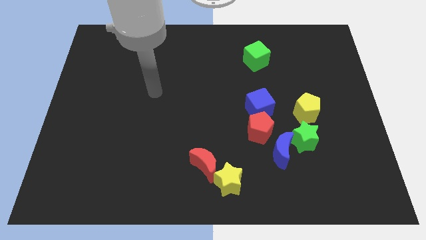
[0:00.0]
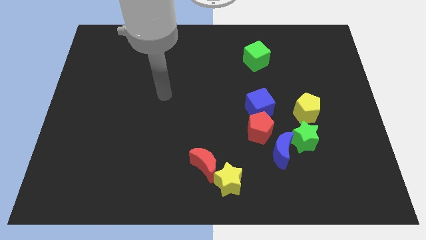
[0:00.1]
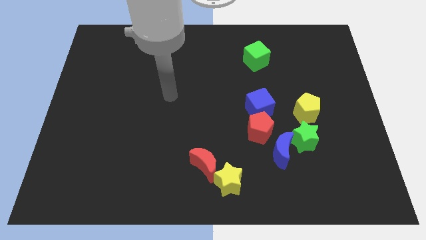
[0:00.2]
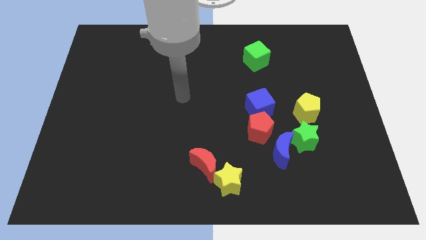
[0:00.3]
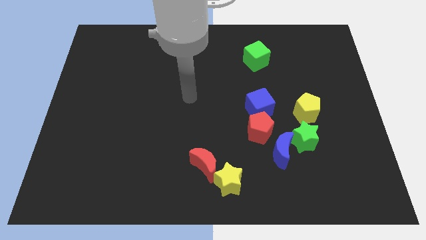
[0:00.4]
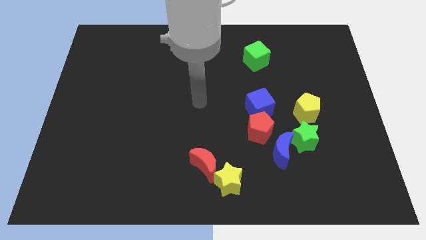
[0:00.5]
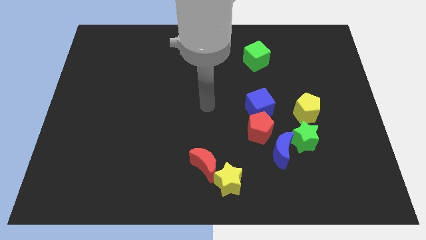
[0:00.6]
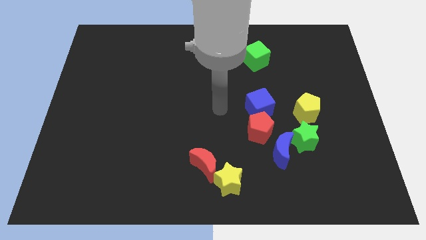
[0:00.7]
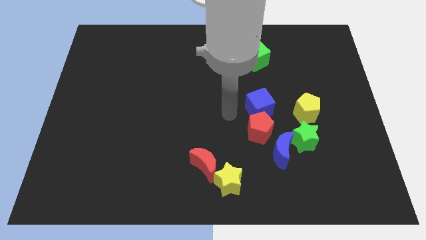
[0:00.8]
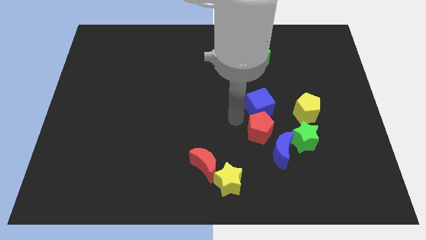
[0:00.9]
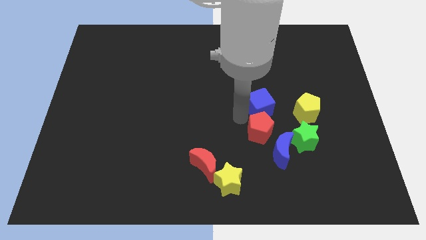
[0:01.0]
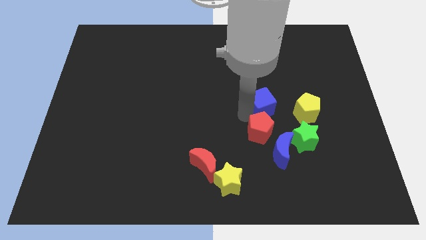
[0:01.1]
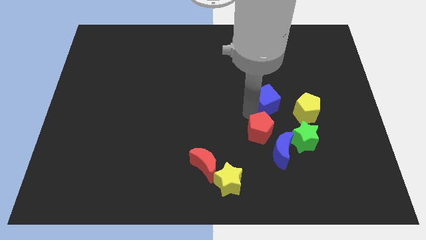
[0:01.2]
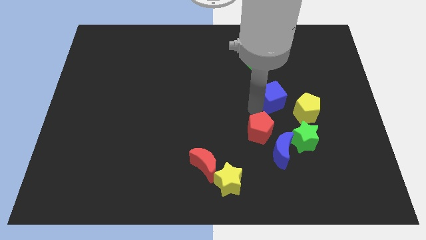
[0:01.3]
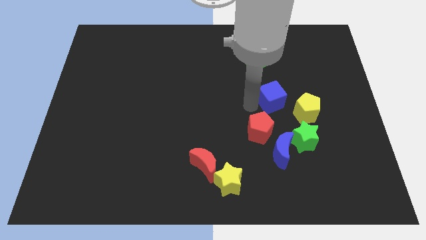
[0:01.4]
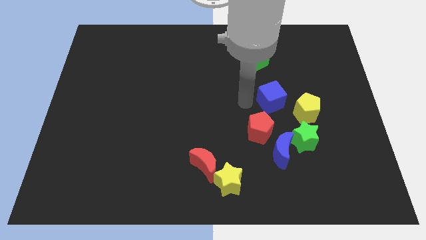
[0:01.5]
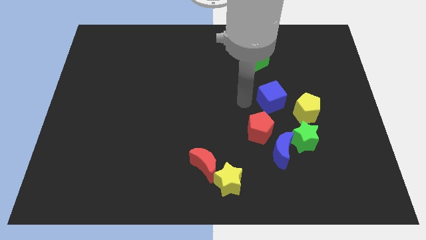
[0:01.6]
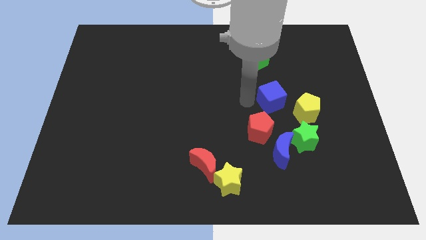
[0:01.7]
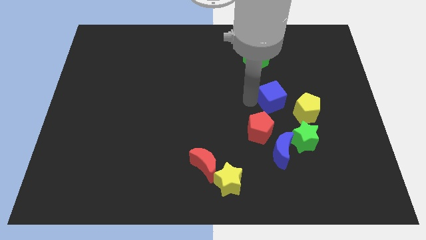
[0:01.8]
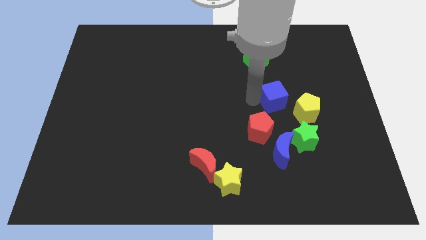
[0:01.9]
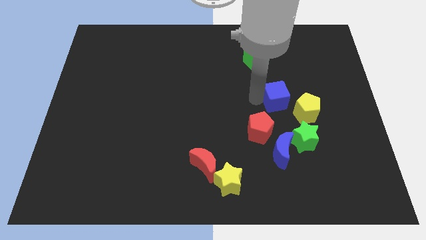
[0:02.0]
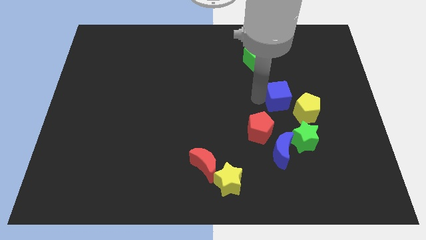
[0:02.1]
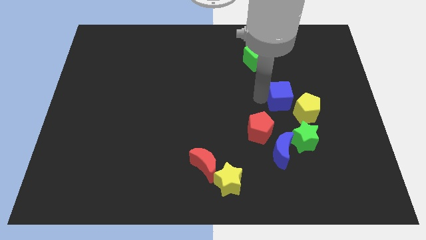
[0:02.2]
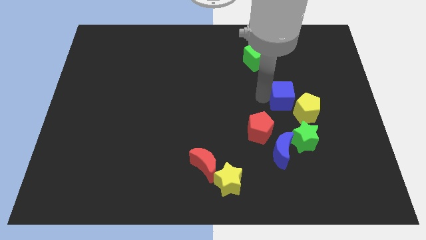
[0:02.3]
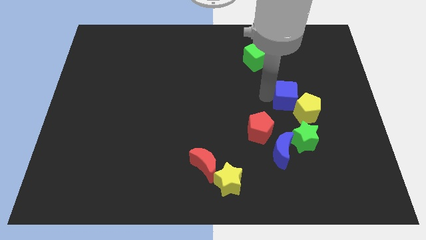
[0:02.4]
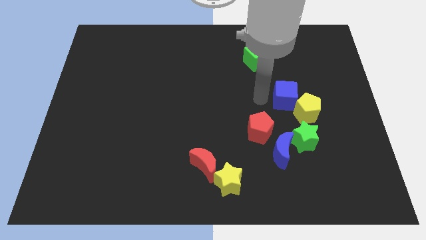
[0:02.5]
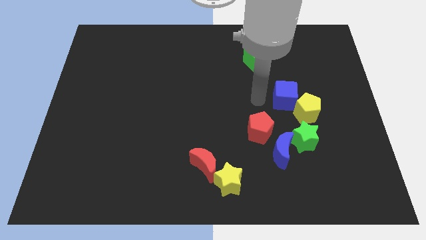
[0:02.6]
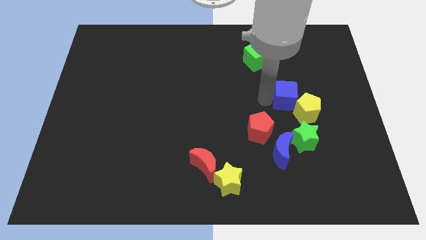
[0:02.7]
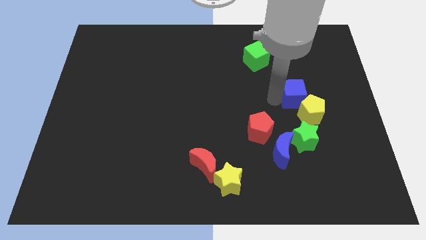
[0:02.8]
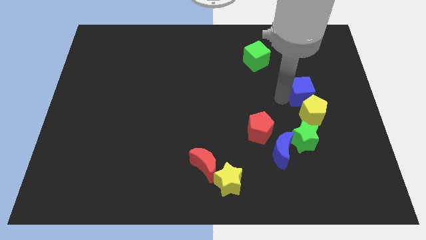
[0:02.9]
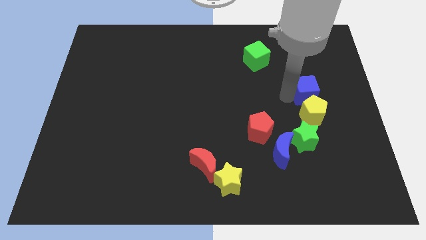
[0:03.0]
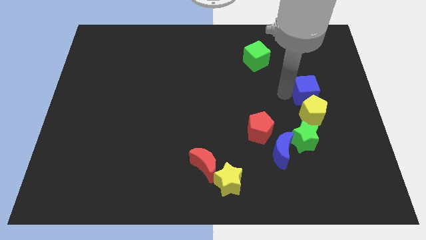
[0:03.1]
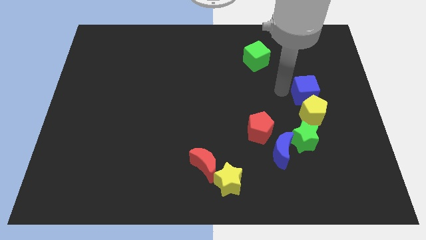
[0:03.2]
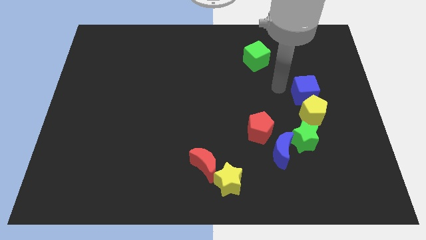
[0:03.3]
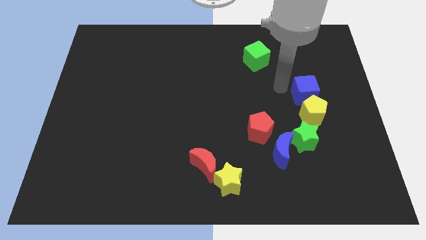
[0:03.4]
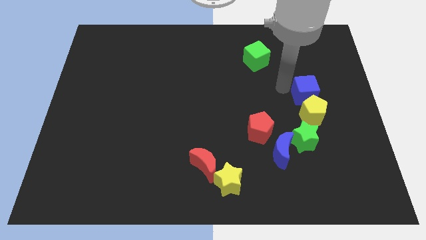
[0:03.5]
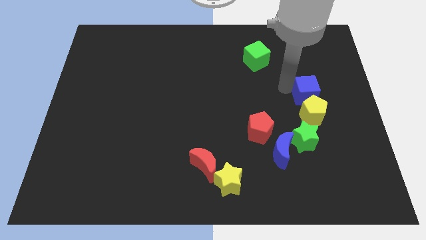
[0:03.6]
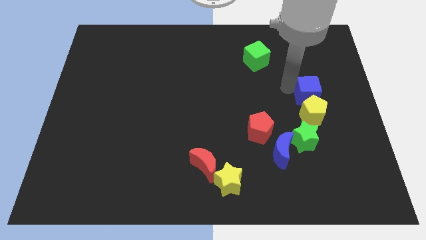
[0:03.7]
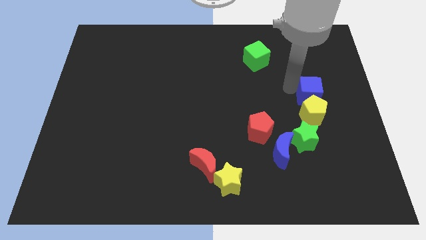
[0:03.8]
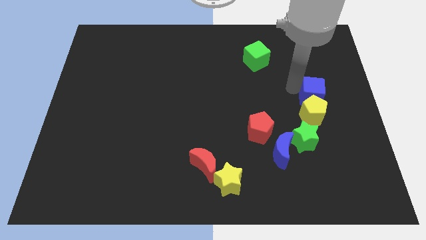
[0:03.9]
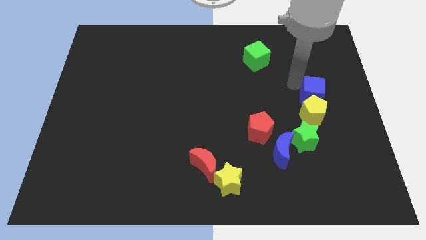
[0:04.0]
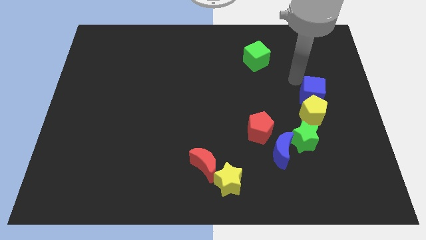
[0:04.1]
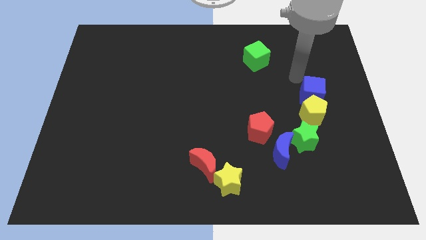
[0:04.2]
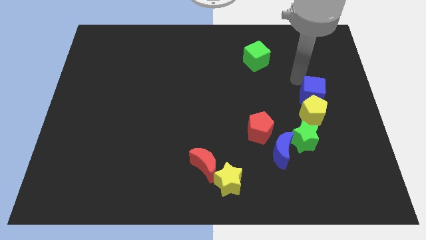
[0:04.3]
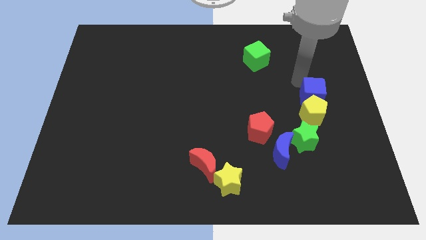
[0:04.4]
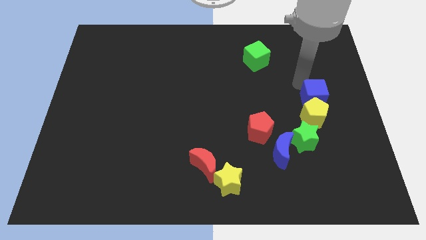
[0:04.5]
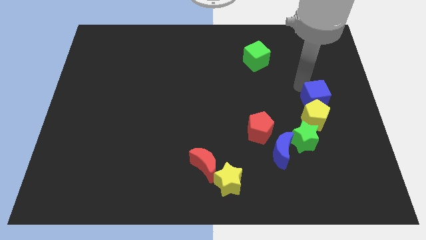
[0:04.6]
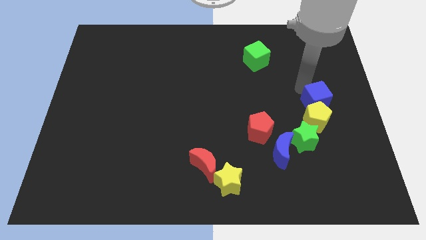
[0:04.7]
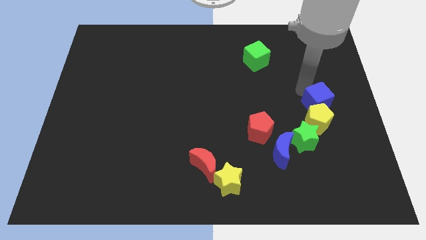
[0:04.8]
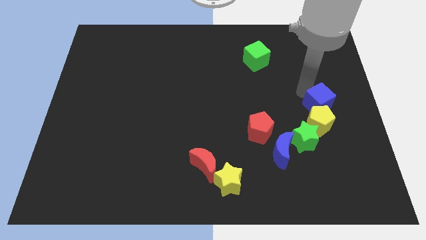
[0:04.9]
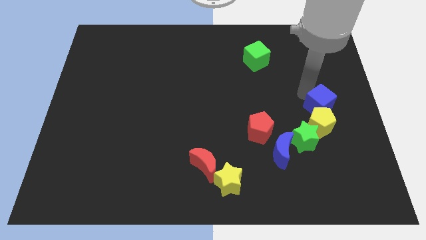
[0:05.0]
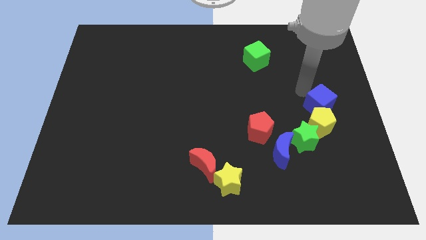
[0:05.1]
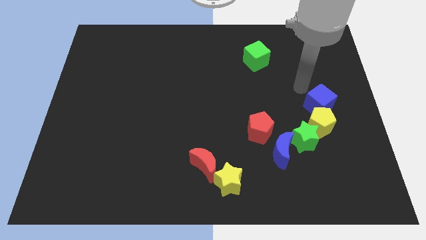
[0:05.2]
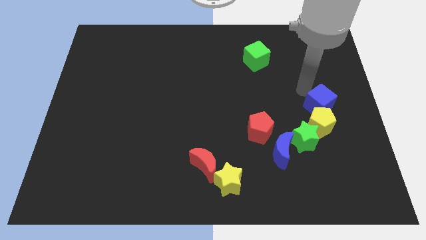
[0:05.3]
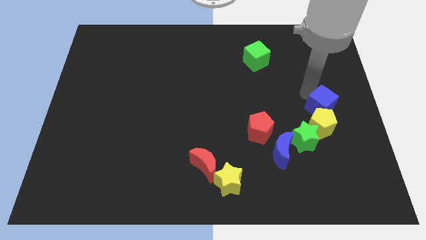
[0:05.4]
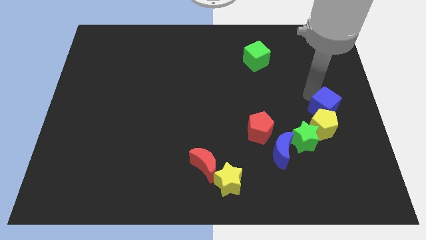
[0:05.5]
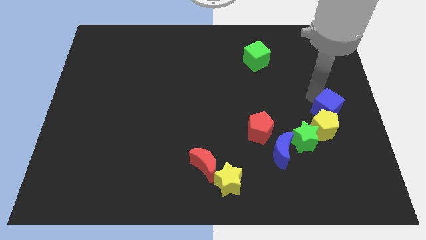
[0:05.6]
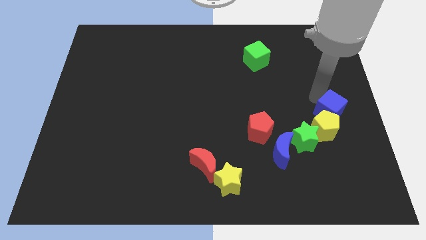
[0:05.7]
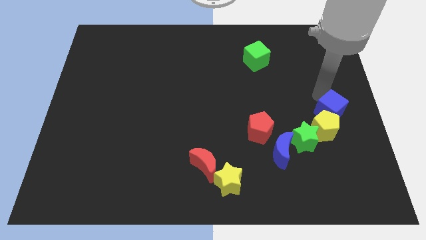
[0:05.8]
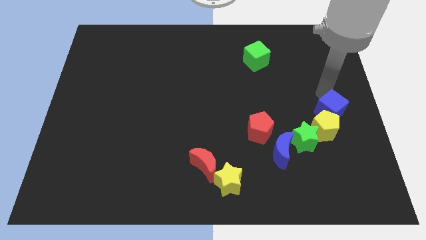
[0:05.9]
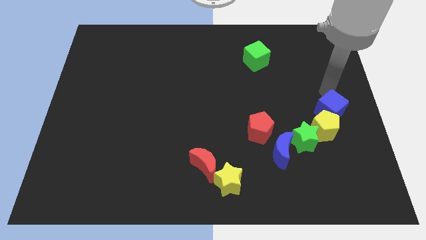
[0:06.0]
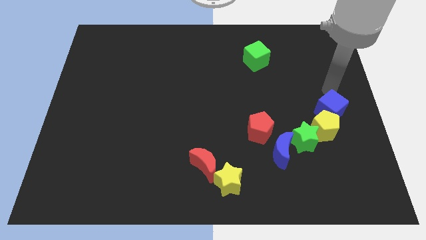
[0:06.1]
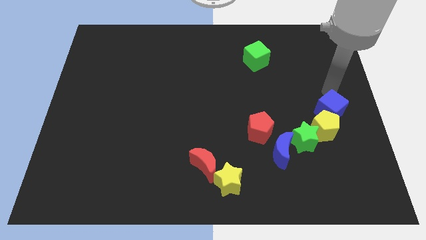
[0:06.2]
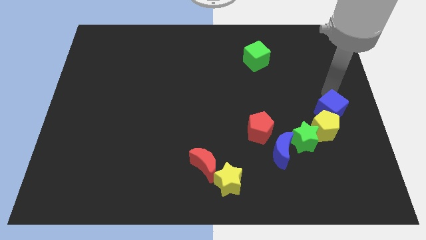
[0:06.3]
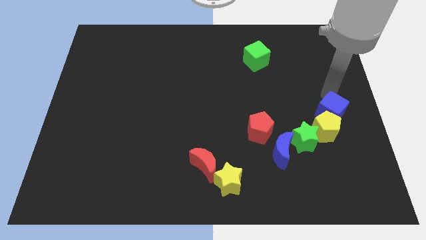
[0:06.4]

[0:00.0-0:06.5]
slide the blue cube down and right a little bit

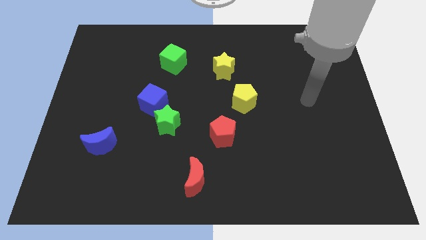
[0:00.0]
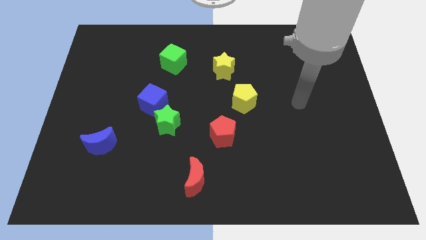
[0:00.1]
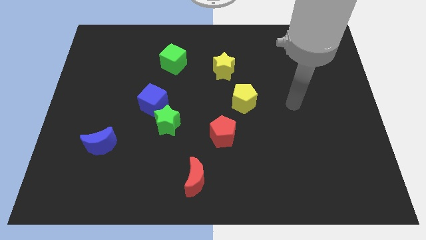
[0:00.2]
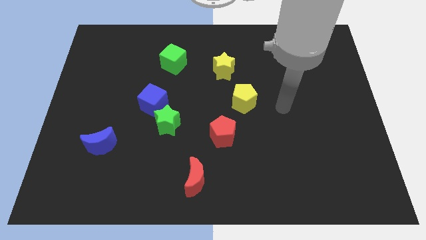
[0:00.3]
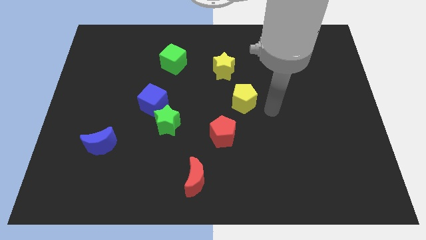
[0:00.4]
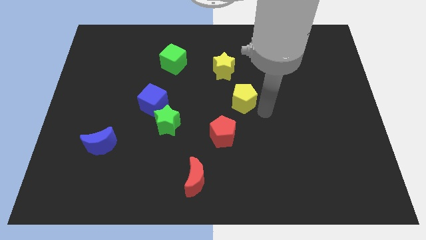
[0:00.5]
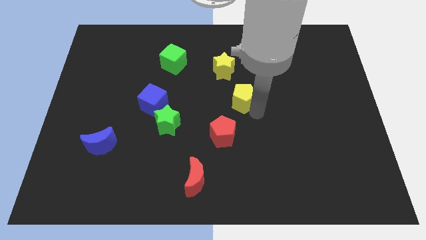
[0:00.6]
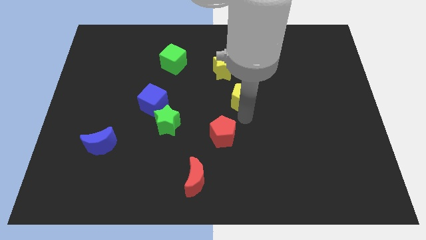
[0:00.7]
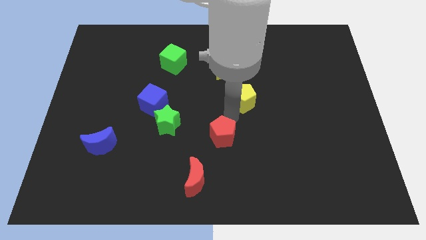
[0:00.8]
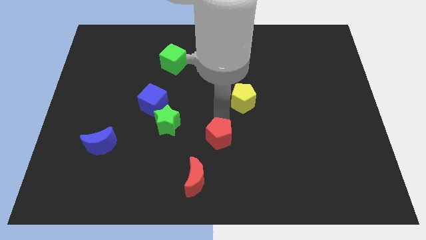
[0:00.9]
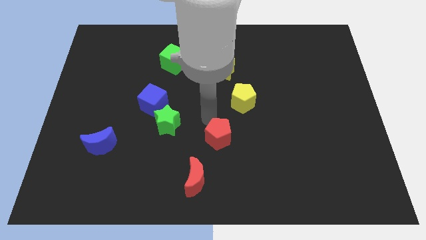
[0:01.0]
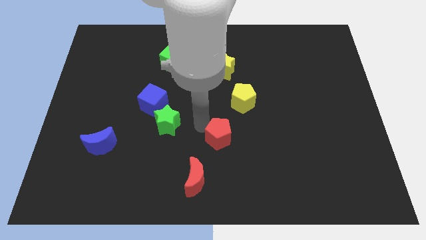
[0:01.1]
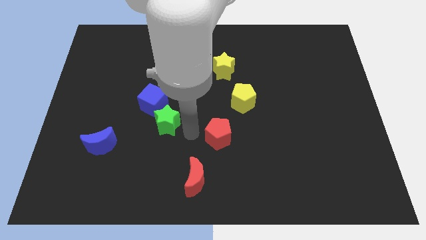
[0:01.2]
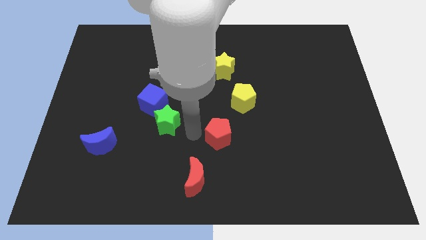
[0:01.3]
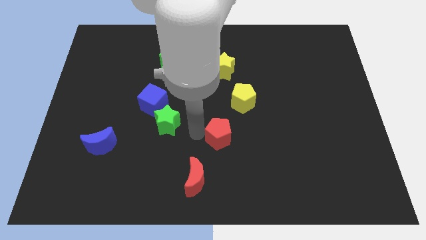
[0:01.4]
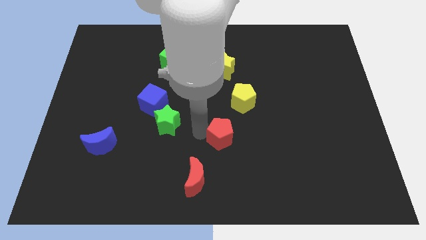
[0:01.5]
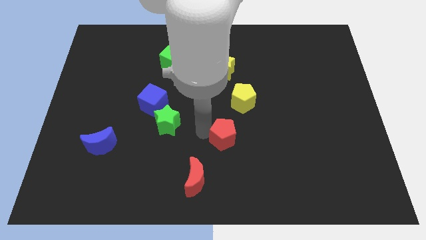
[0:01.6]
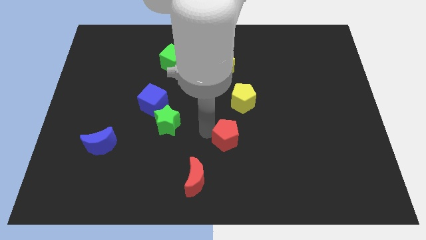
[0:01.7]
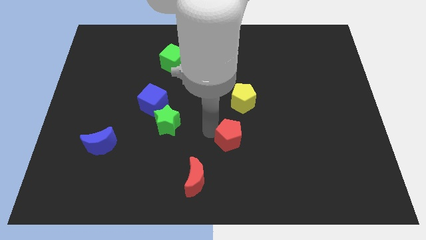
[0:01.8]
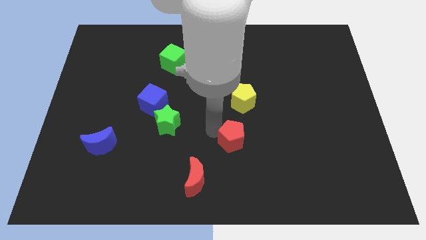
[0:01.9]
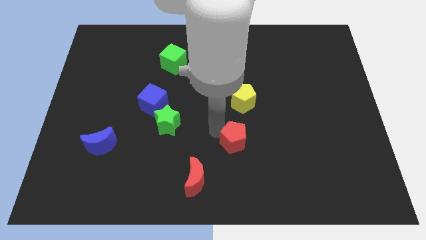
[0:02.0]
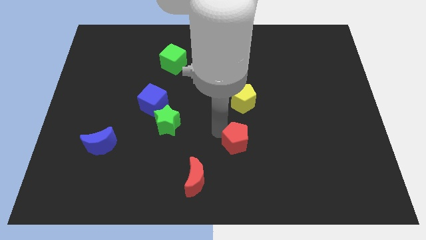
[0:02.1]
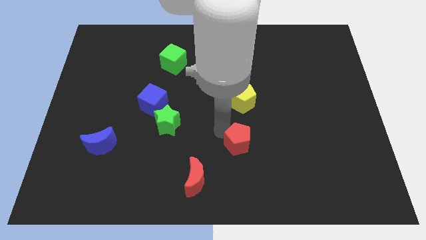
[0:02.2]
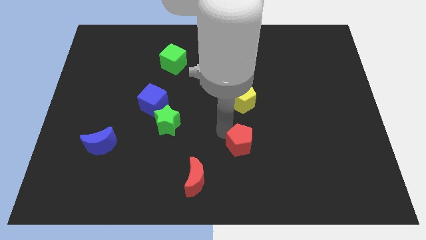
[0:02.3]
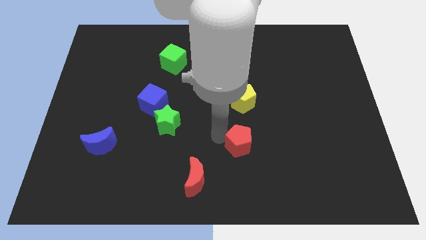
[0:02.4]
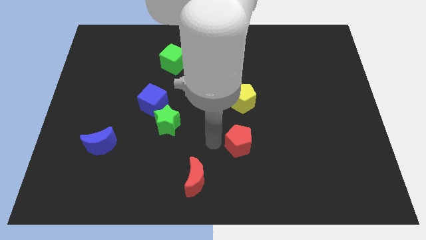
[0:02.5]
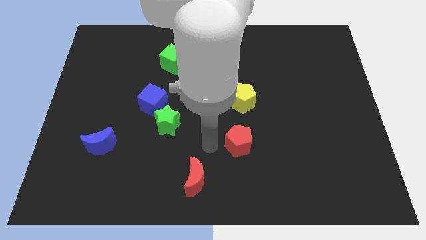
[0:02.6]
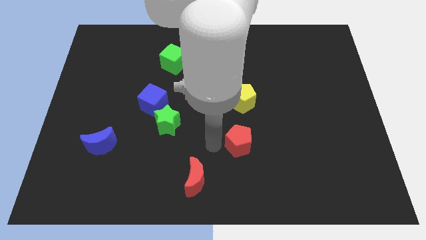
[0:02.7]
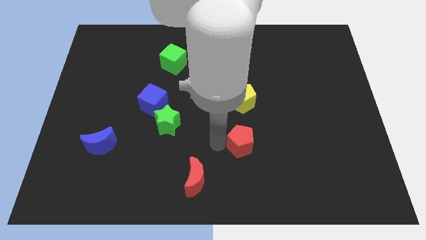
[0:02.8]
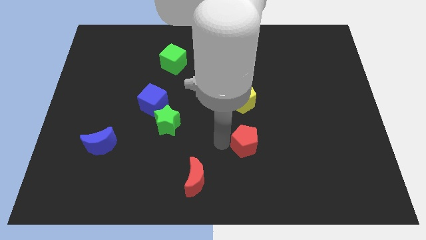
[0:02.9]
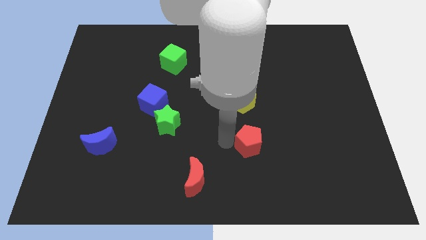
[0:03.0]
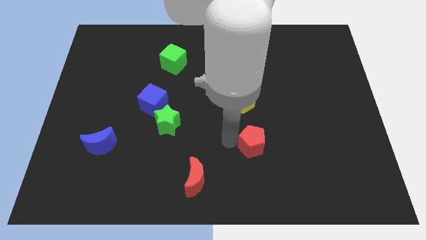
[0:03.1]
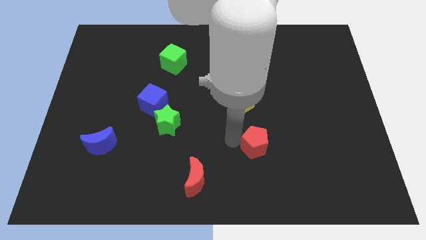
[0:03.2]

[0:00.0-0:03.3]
push the red pentagon a bit right
